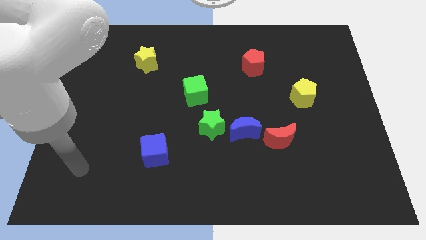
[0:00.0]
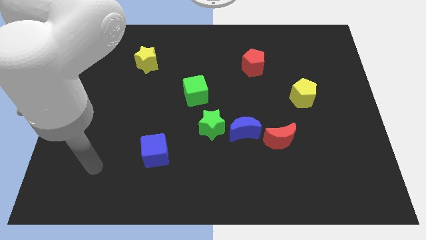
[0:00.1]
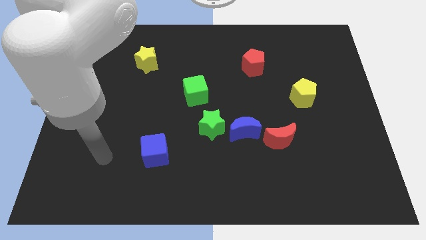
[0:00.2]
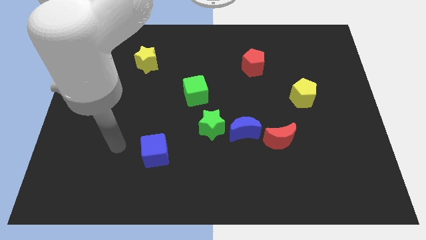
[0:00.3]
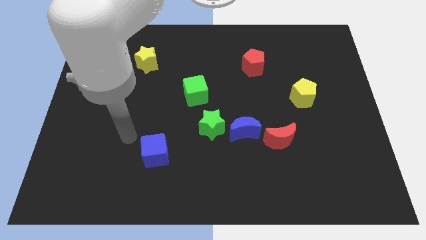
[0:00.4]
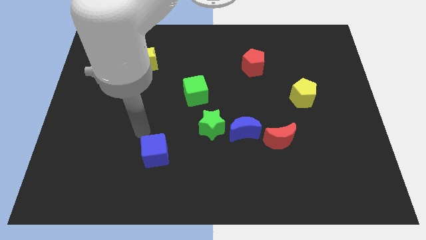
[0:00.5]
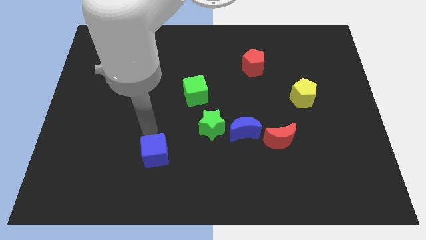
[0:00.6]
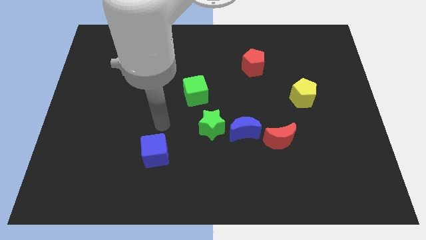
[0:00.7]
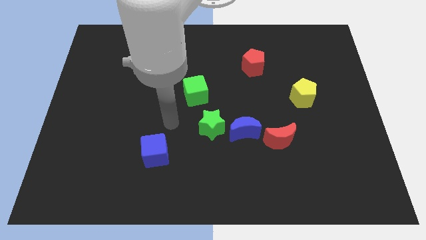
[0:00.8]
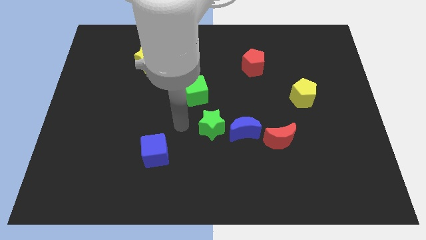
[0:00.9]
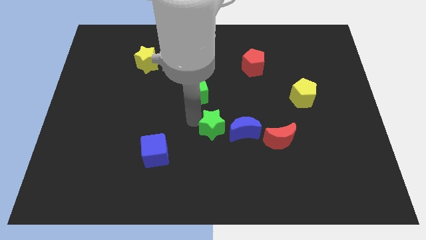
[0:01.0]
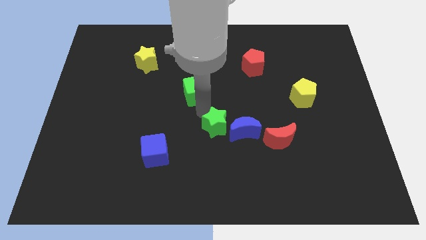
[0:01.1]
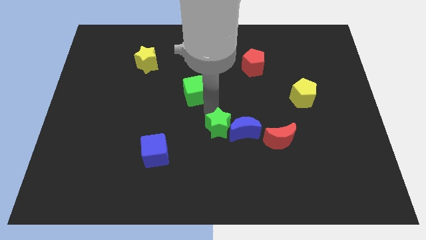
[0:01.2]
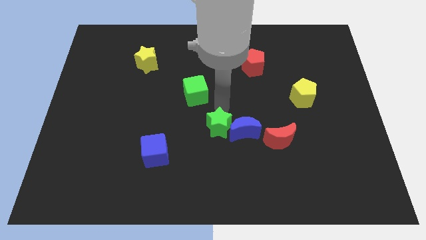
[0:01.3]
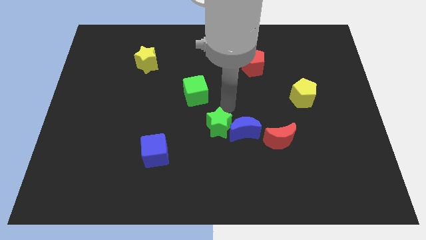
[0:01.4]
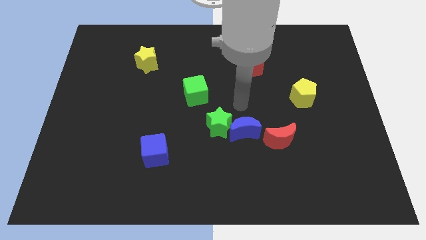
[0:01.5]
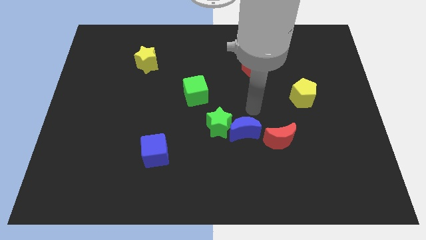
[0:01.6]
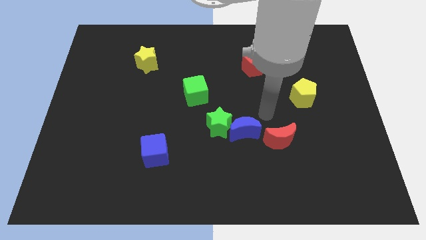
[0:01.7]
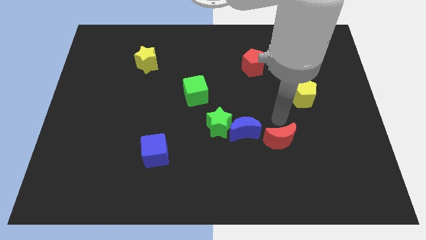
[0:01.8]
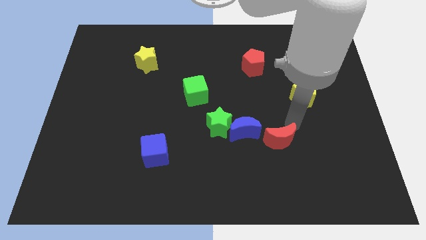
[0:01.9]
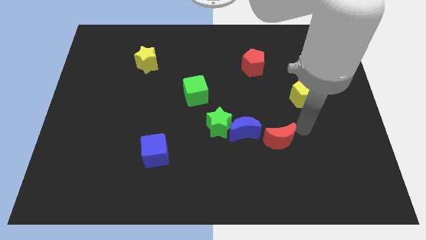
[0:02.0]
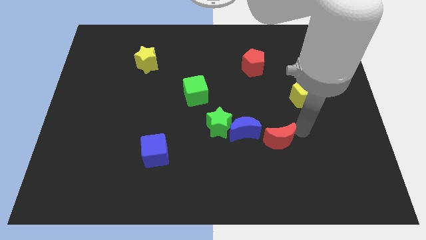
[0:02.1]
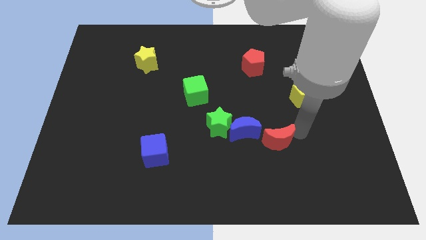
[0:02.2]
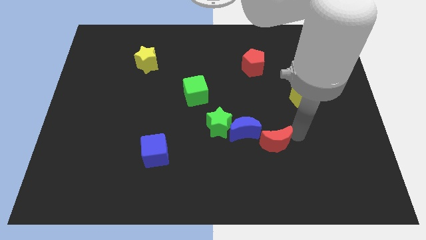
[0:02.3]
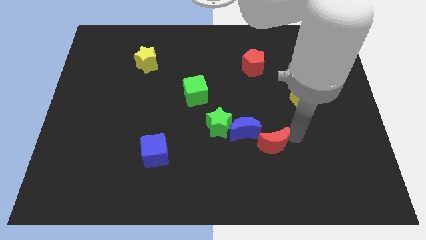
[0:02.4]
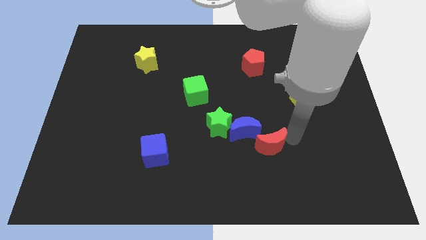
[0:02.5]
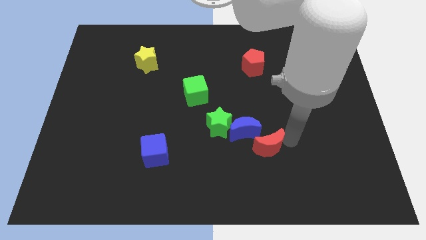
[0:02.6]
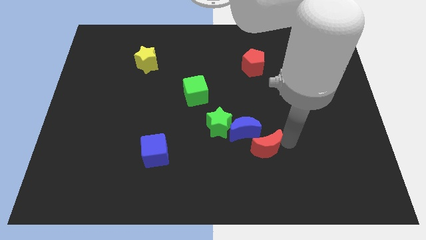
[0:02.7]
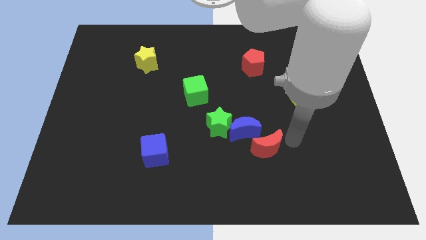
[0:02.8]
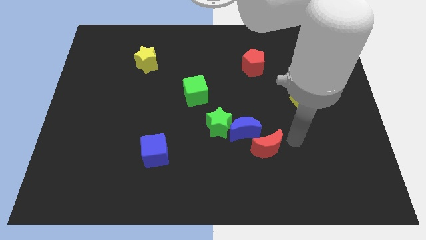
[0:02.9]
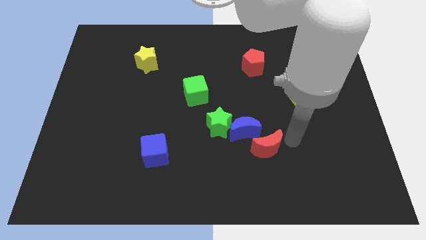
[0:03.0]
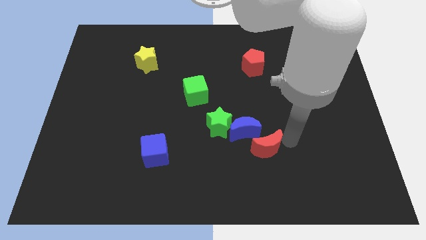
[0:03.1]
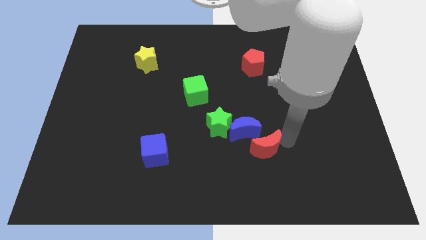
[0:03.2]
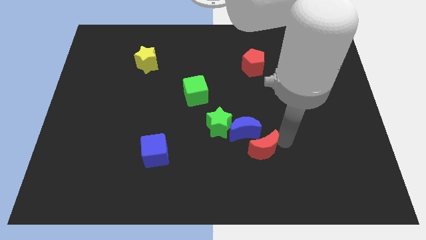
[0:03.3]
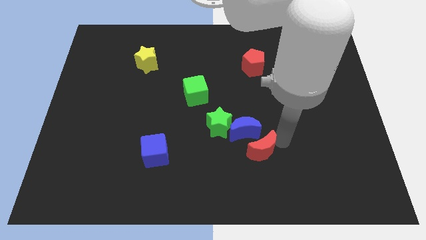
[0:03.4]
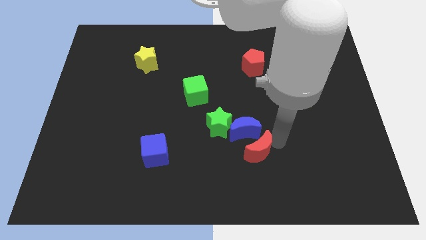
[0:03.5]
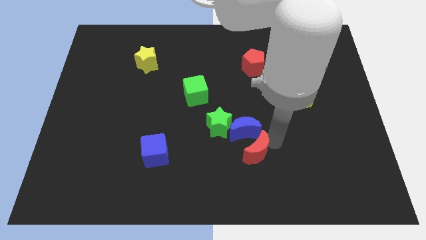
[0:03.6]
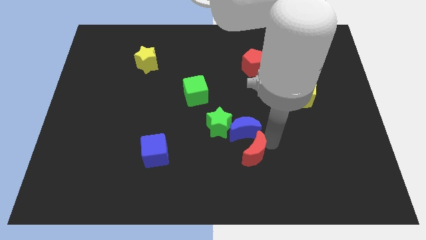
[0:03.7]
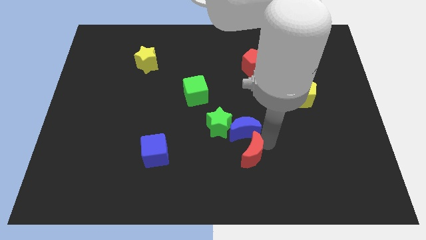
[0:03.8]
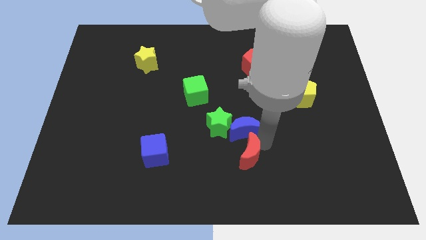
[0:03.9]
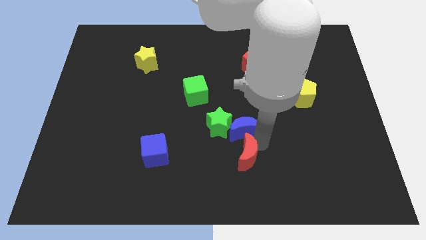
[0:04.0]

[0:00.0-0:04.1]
push the red moon somewhat left

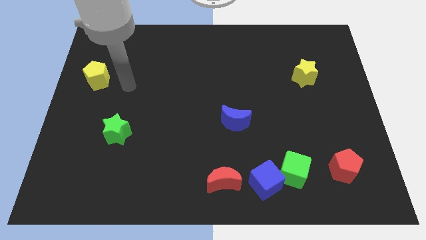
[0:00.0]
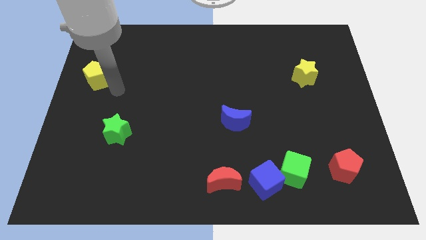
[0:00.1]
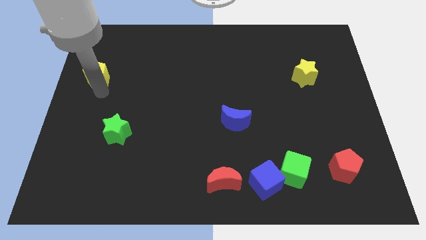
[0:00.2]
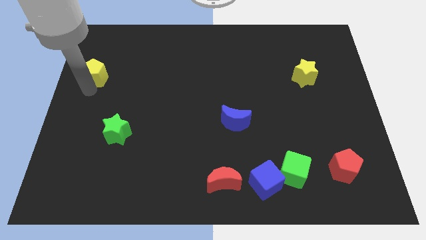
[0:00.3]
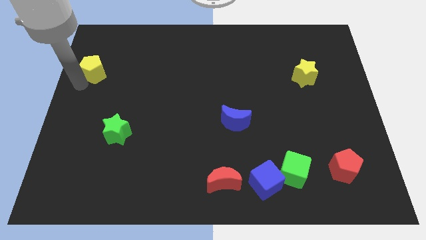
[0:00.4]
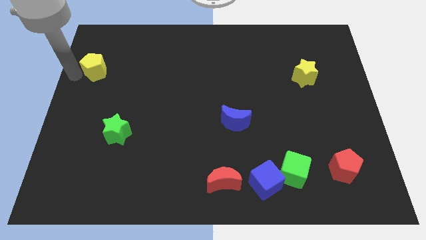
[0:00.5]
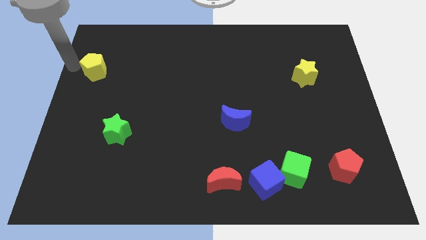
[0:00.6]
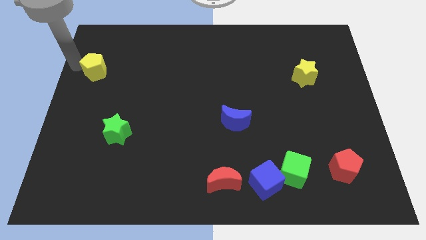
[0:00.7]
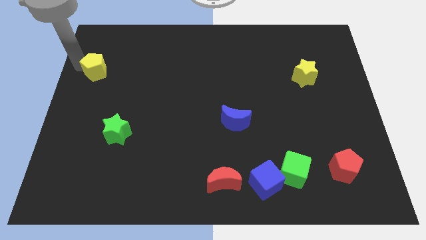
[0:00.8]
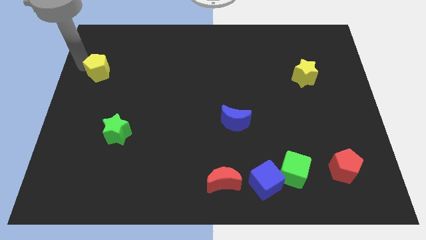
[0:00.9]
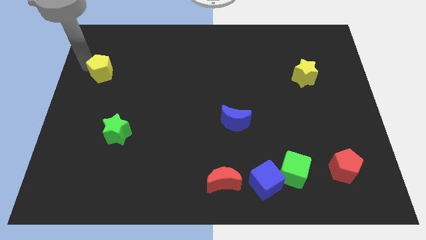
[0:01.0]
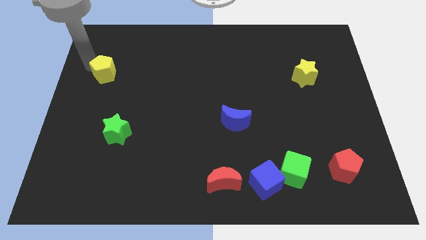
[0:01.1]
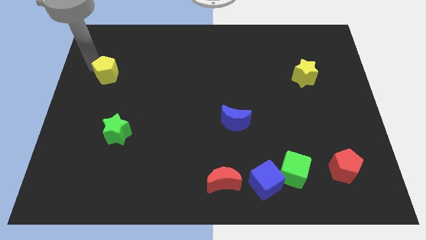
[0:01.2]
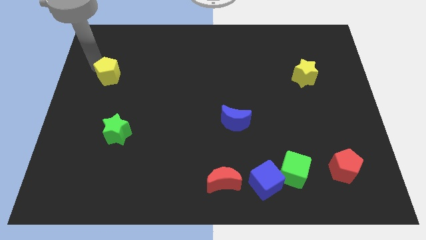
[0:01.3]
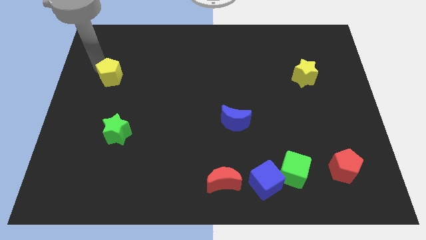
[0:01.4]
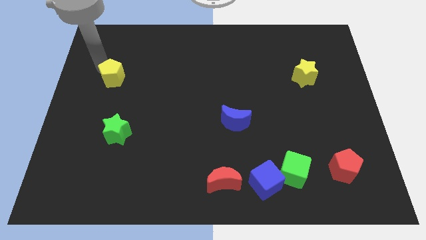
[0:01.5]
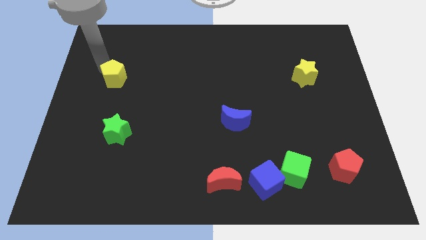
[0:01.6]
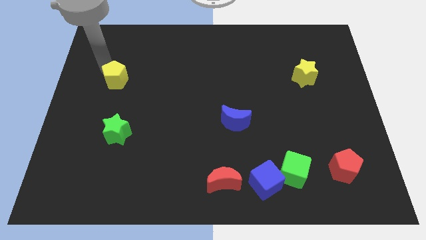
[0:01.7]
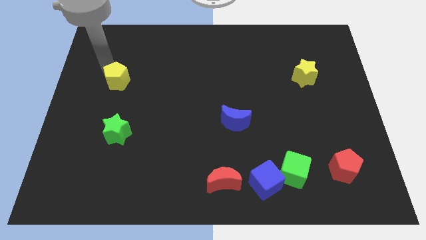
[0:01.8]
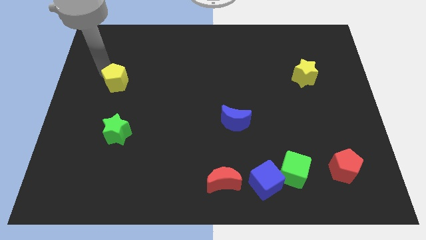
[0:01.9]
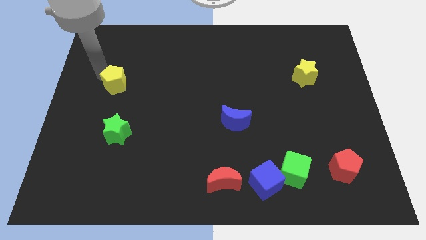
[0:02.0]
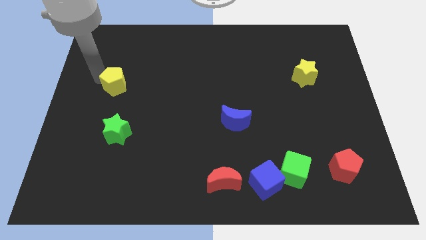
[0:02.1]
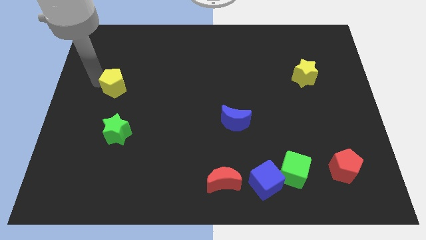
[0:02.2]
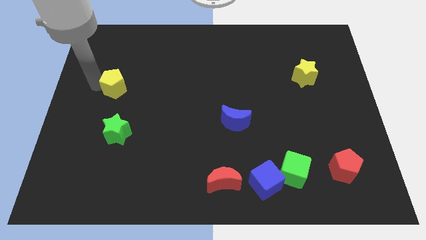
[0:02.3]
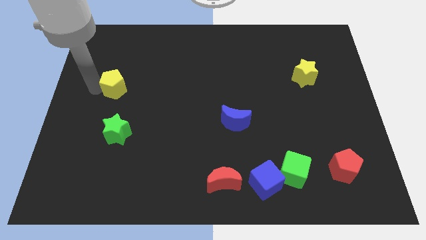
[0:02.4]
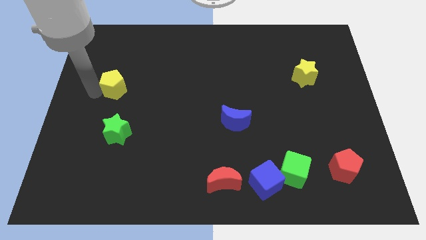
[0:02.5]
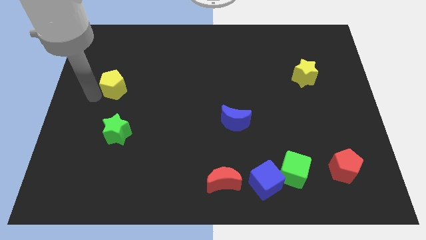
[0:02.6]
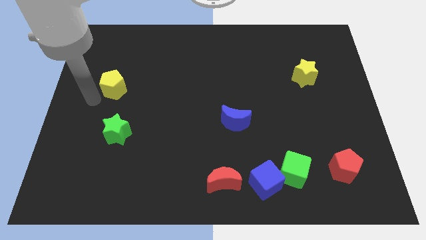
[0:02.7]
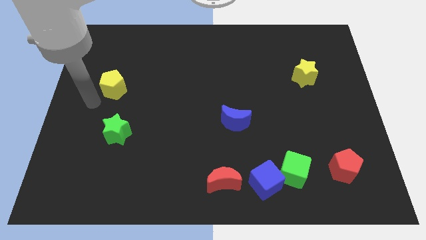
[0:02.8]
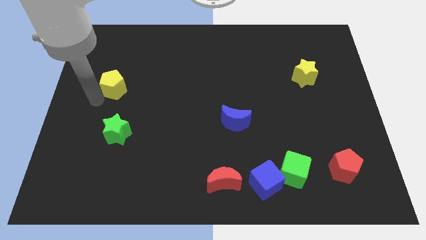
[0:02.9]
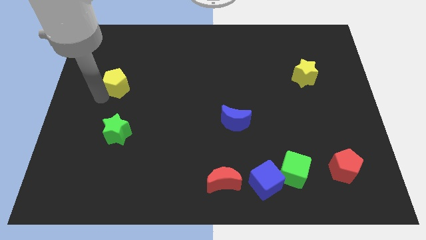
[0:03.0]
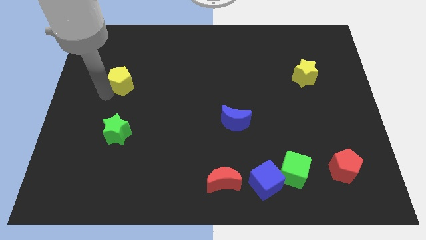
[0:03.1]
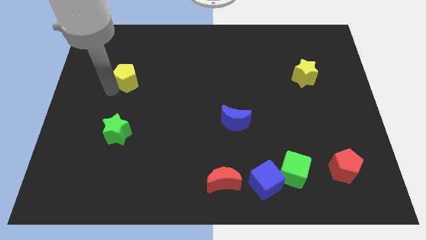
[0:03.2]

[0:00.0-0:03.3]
push the yellow pentagon to the right a little bit

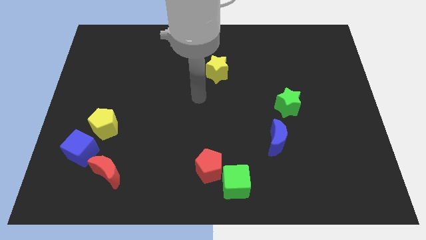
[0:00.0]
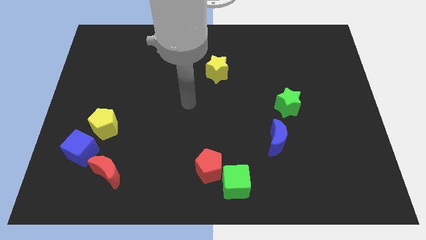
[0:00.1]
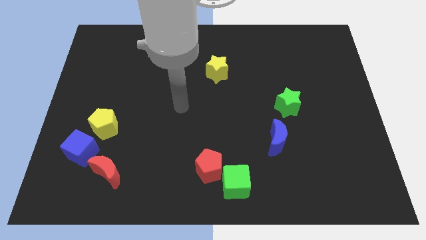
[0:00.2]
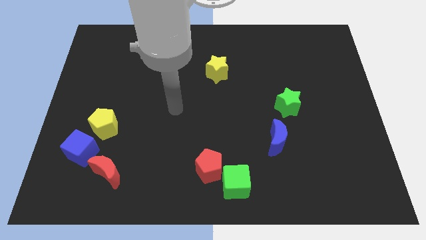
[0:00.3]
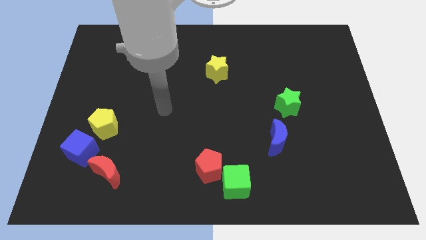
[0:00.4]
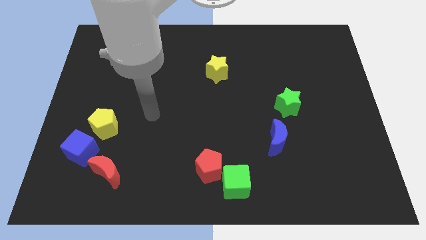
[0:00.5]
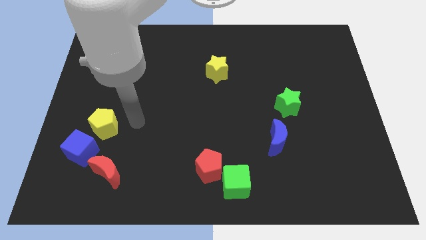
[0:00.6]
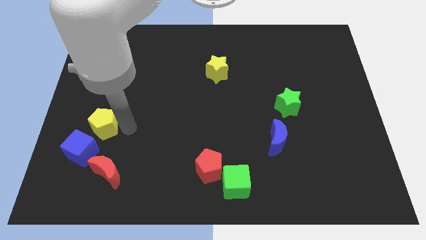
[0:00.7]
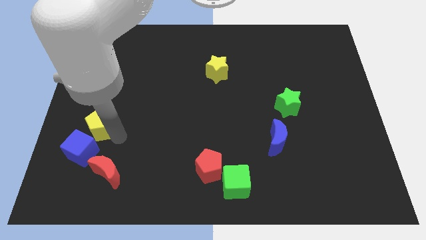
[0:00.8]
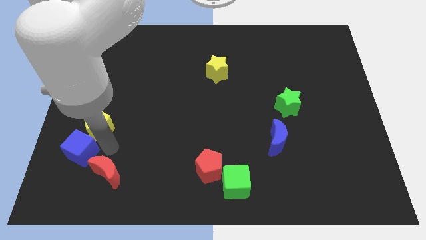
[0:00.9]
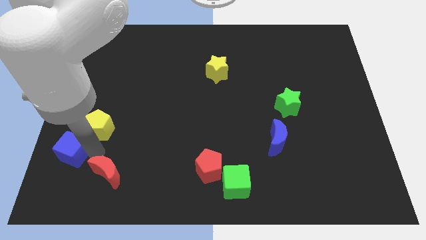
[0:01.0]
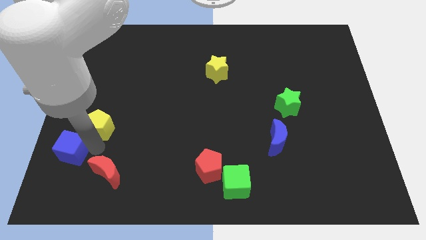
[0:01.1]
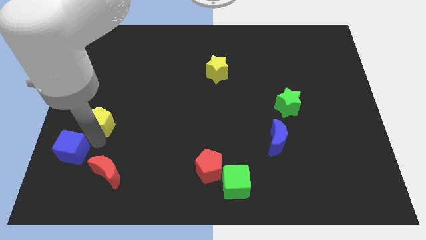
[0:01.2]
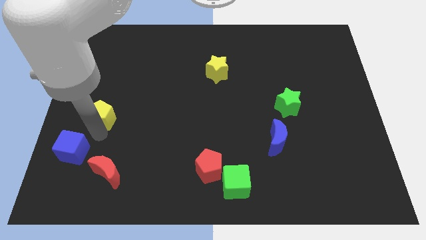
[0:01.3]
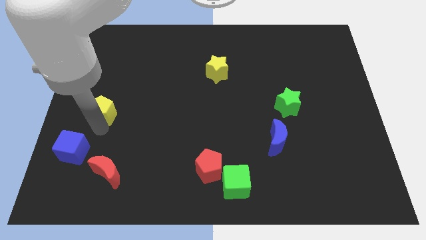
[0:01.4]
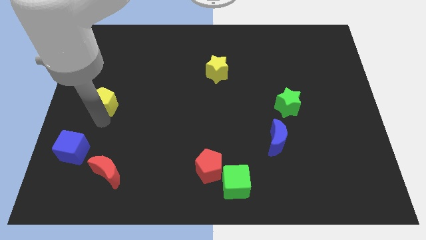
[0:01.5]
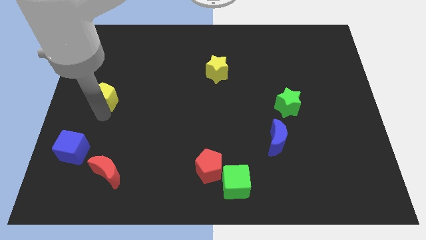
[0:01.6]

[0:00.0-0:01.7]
move the yellow pentagon a little bit up
